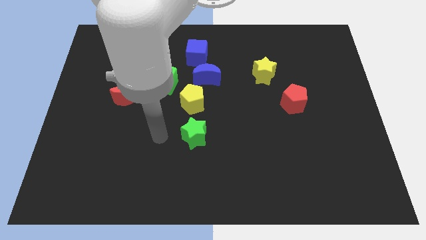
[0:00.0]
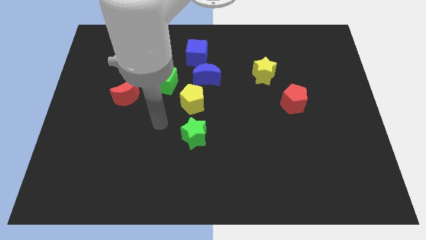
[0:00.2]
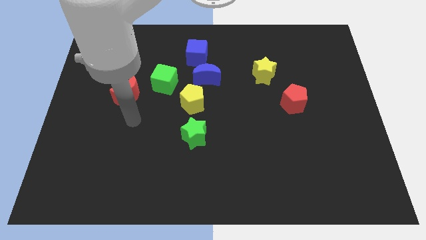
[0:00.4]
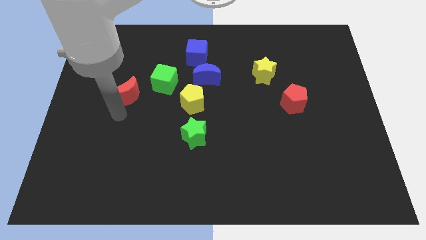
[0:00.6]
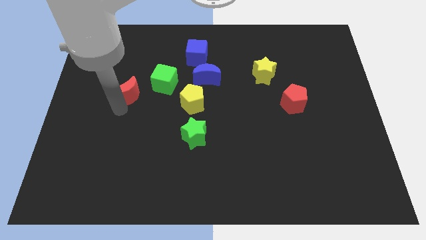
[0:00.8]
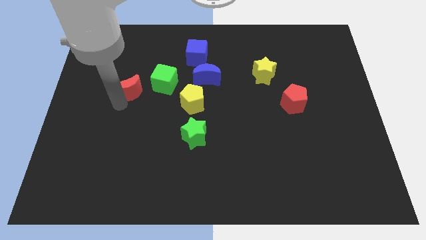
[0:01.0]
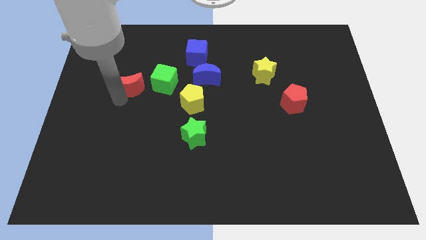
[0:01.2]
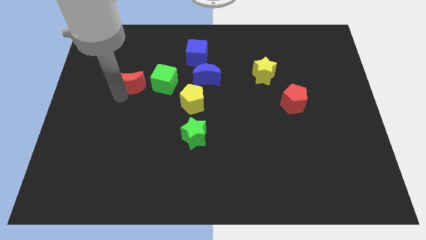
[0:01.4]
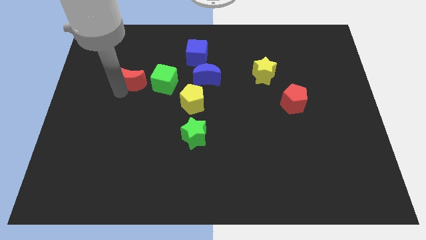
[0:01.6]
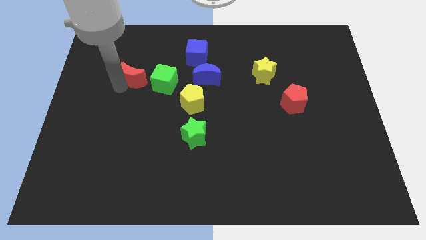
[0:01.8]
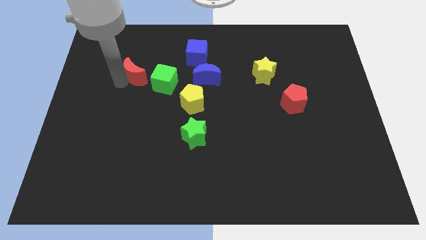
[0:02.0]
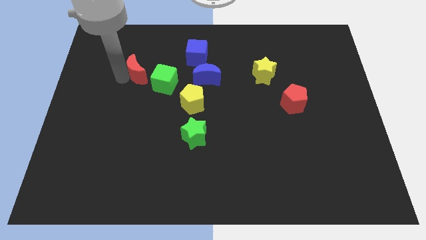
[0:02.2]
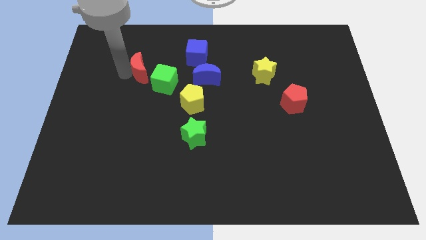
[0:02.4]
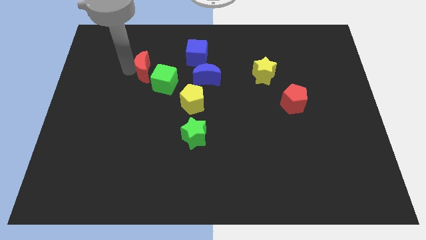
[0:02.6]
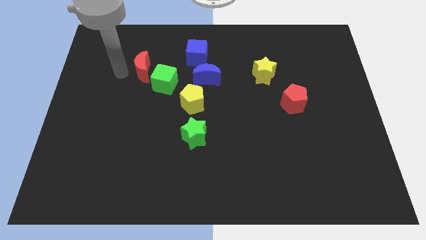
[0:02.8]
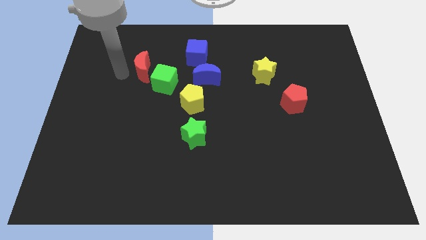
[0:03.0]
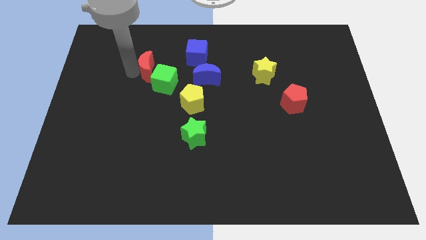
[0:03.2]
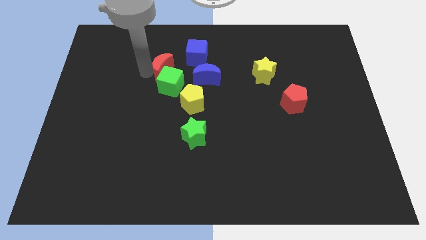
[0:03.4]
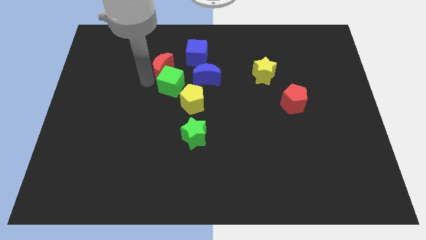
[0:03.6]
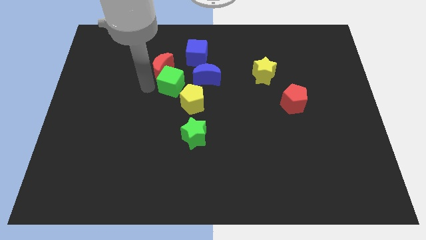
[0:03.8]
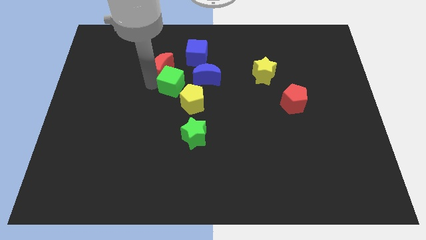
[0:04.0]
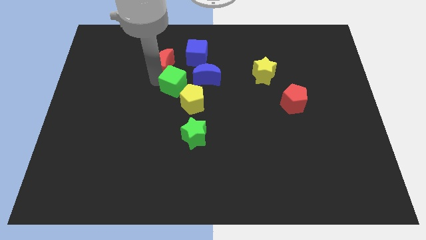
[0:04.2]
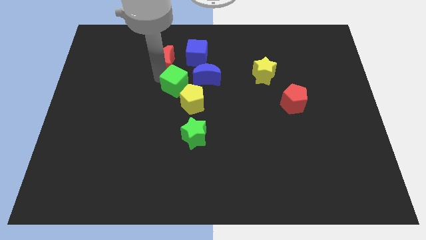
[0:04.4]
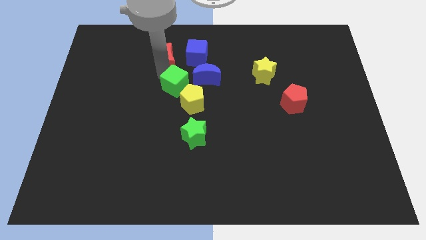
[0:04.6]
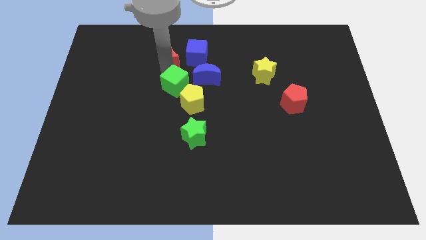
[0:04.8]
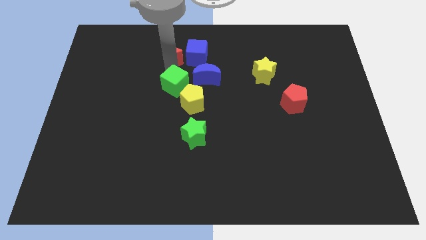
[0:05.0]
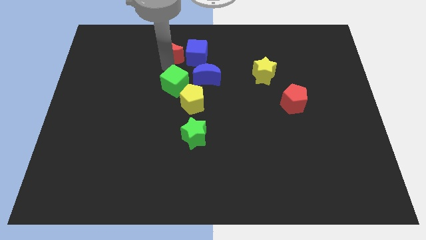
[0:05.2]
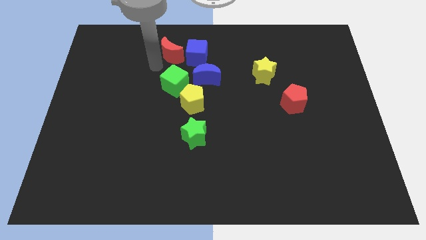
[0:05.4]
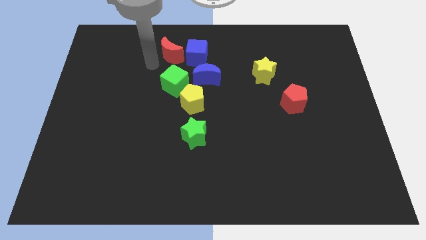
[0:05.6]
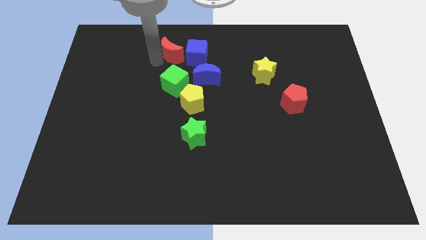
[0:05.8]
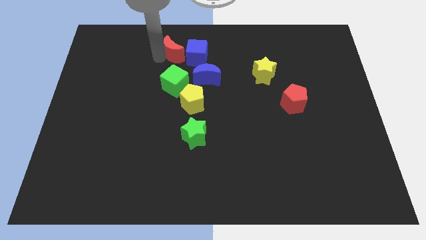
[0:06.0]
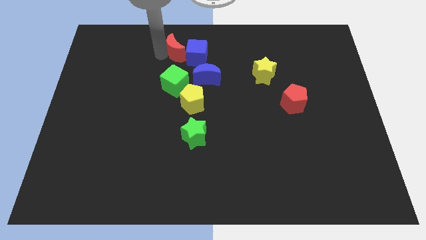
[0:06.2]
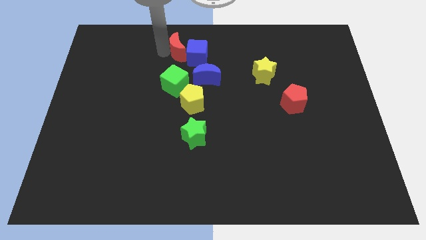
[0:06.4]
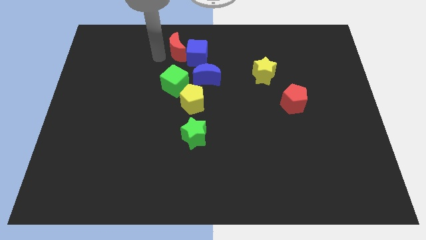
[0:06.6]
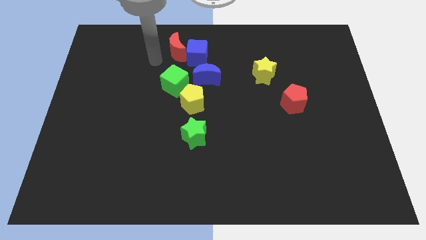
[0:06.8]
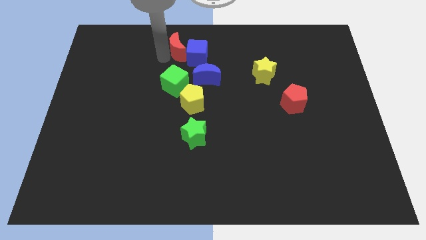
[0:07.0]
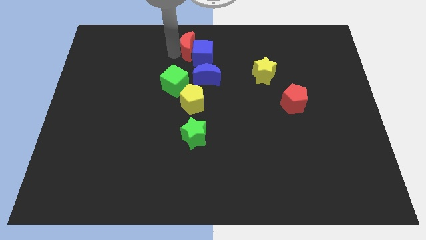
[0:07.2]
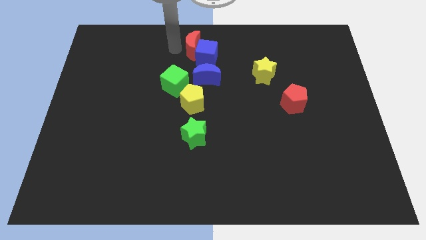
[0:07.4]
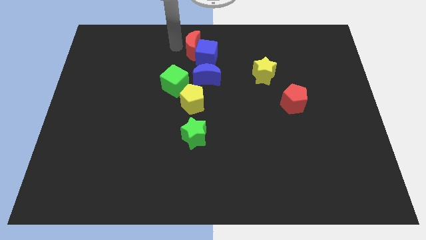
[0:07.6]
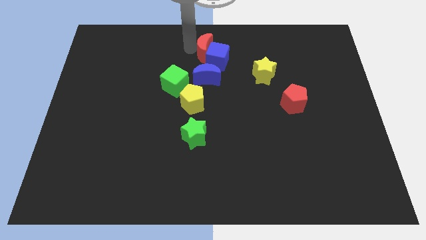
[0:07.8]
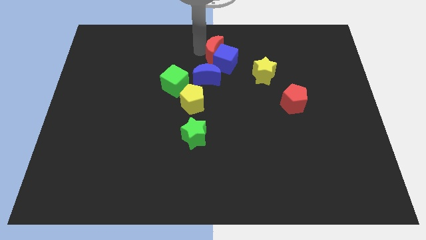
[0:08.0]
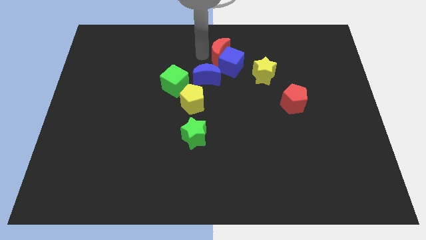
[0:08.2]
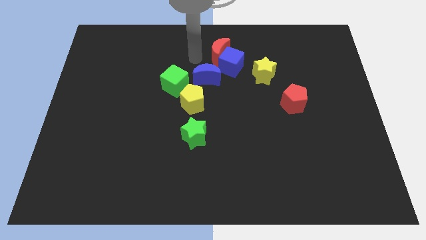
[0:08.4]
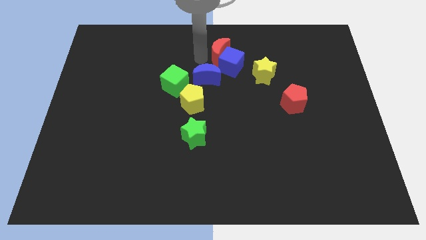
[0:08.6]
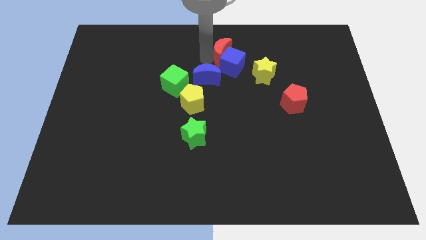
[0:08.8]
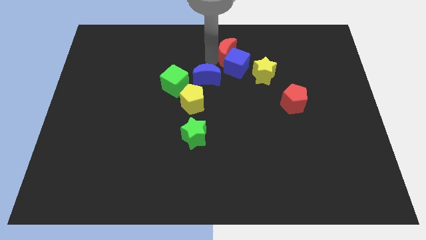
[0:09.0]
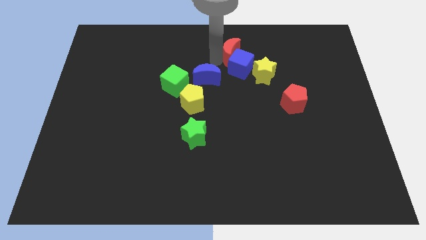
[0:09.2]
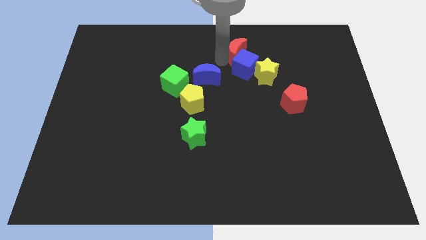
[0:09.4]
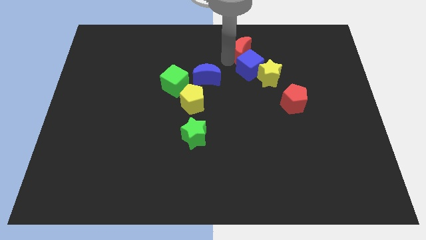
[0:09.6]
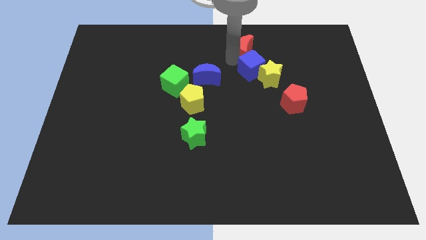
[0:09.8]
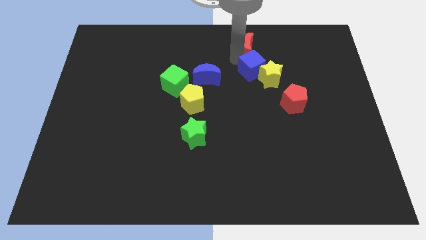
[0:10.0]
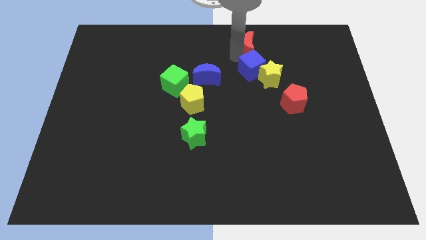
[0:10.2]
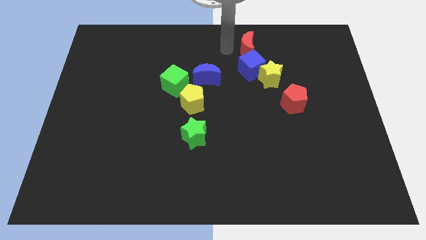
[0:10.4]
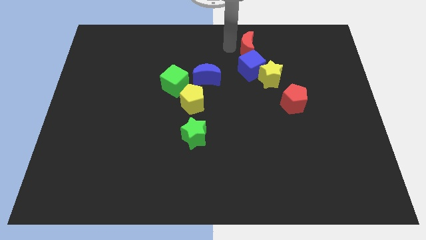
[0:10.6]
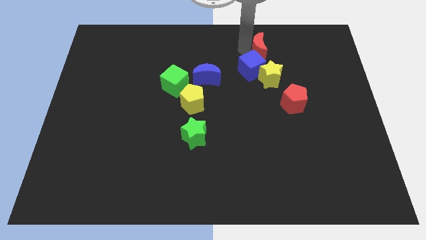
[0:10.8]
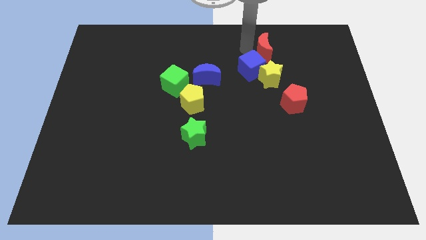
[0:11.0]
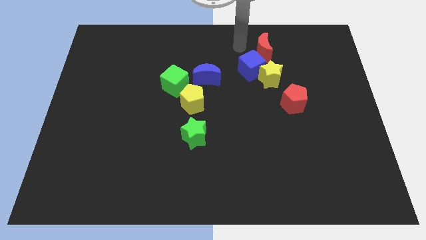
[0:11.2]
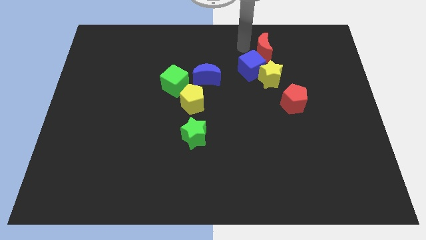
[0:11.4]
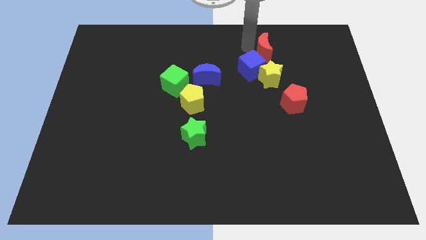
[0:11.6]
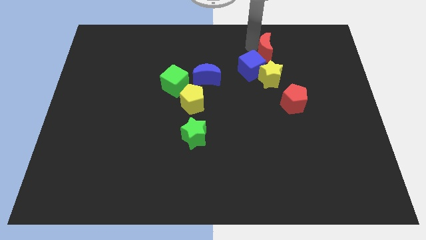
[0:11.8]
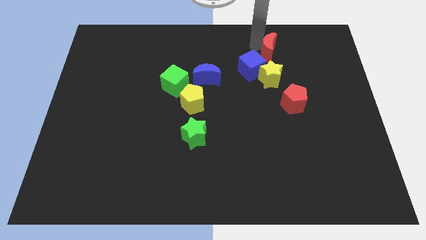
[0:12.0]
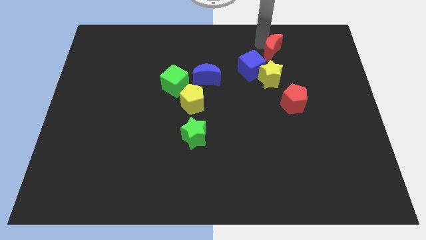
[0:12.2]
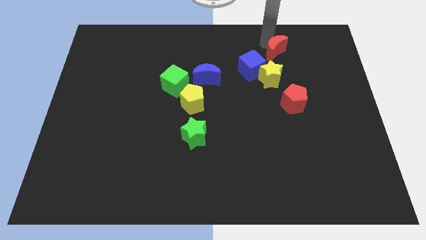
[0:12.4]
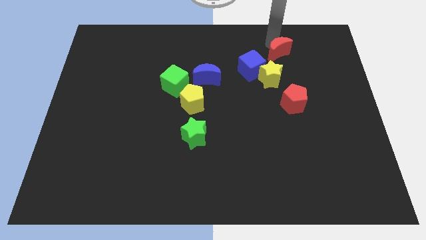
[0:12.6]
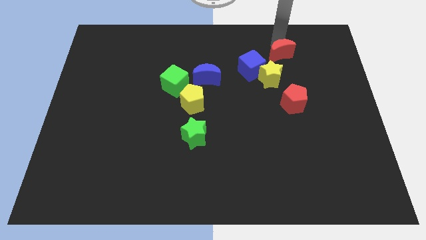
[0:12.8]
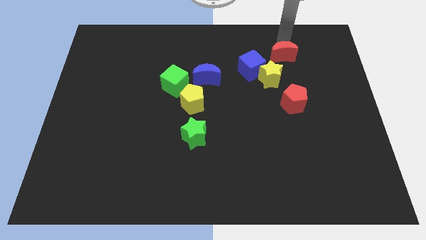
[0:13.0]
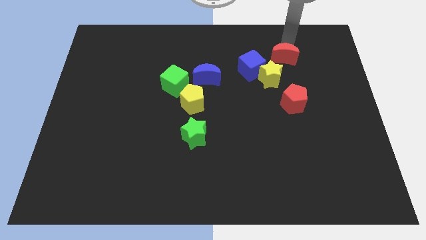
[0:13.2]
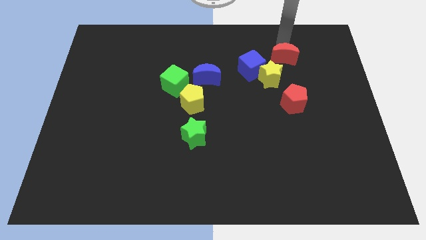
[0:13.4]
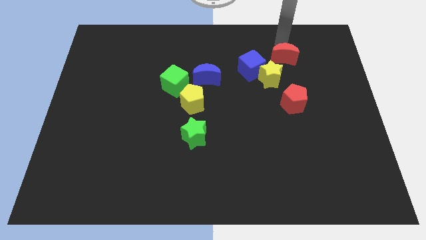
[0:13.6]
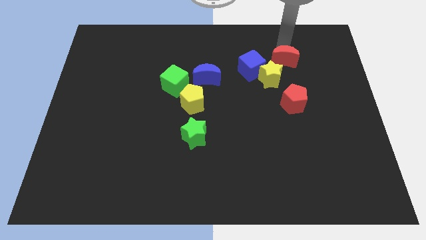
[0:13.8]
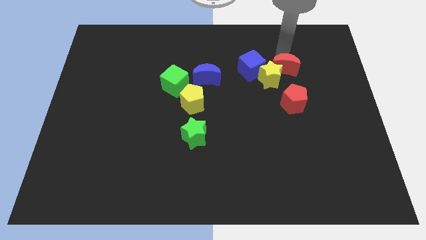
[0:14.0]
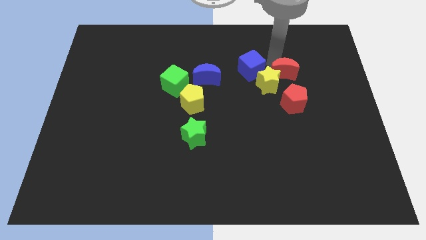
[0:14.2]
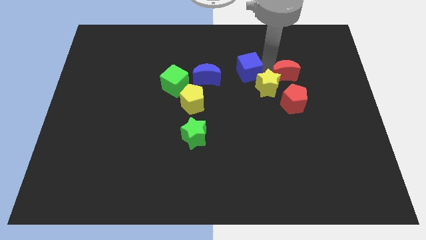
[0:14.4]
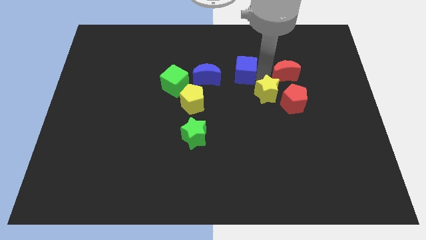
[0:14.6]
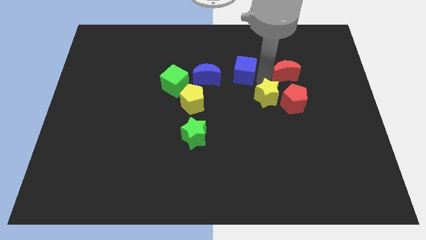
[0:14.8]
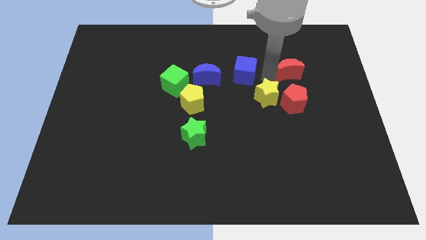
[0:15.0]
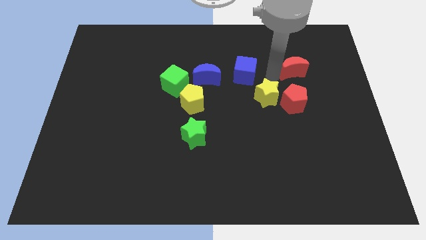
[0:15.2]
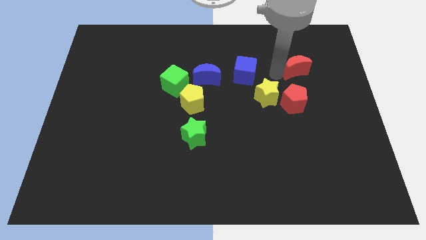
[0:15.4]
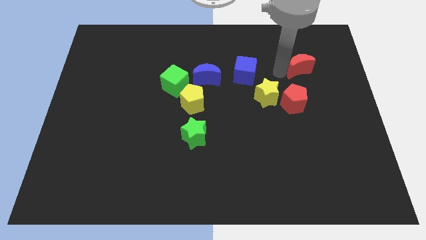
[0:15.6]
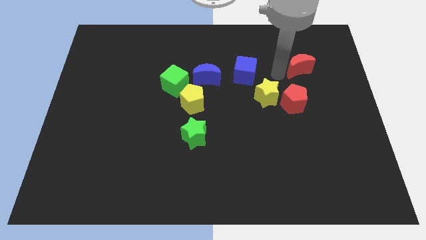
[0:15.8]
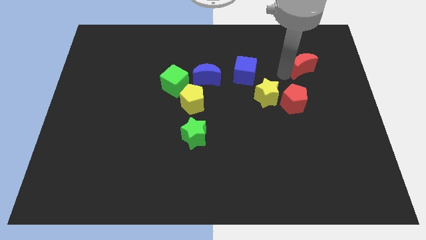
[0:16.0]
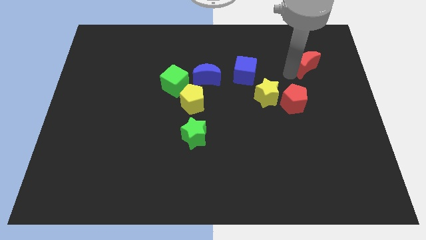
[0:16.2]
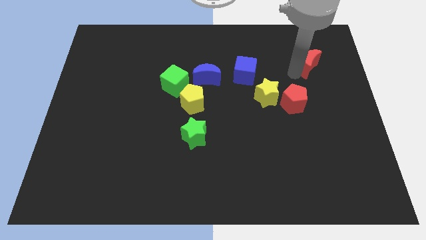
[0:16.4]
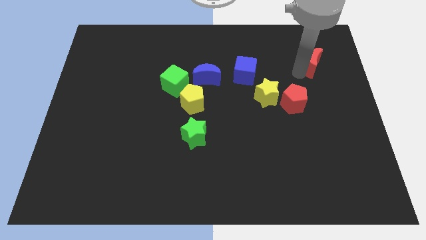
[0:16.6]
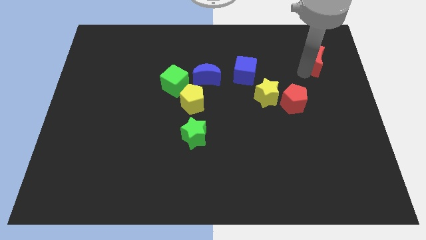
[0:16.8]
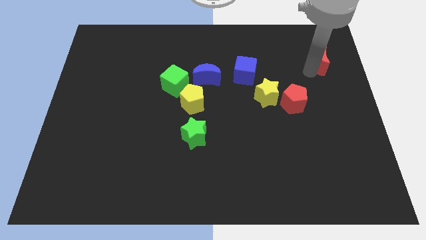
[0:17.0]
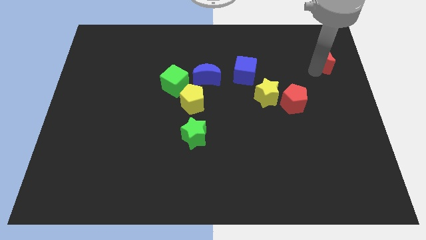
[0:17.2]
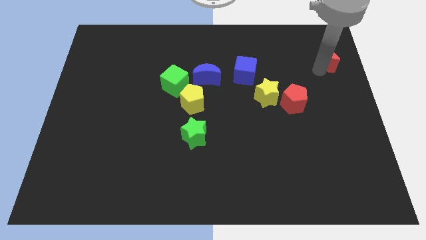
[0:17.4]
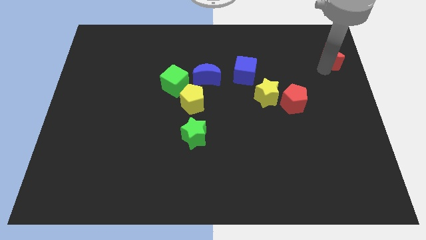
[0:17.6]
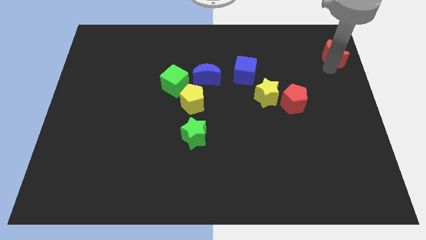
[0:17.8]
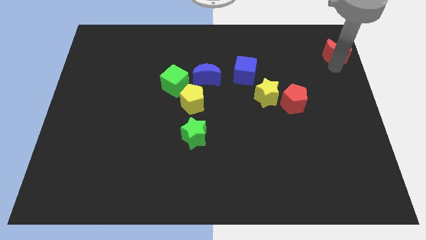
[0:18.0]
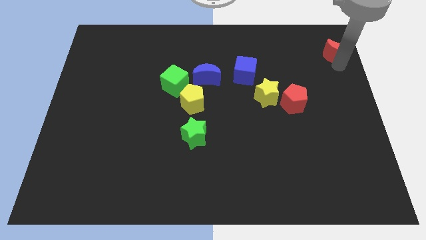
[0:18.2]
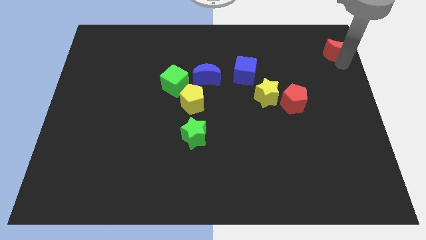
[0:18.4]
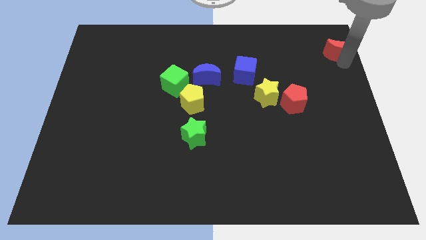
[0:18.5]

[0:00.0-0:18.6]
slide the red moon to the top right corner
